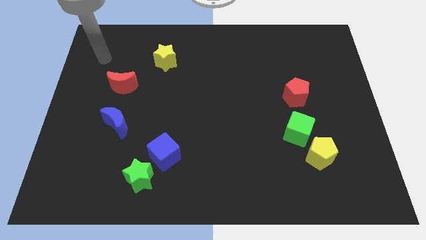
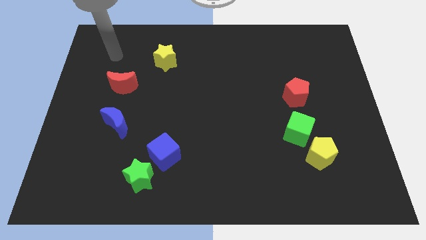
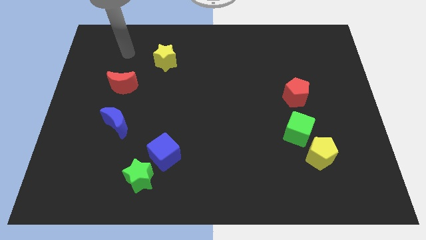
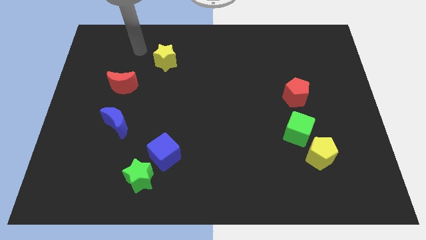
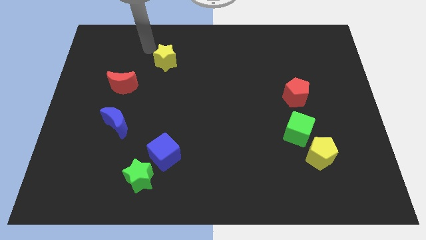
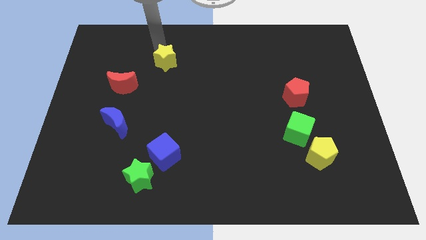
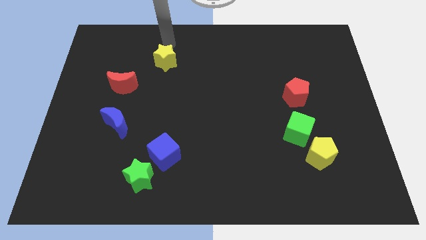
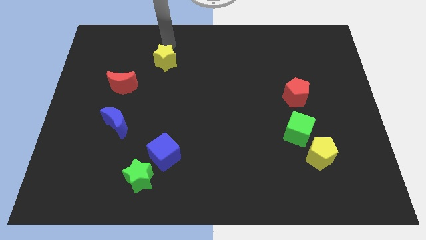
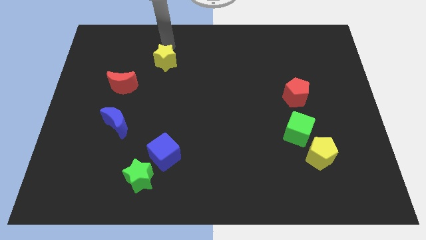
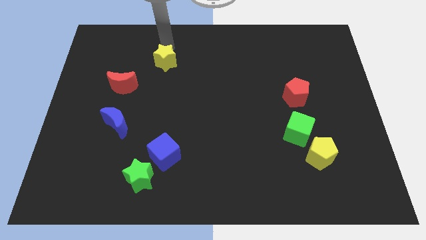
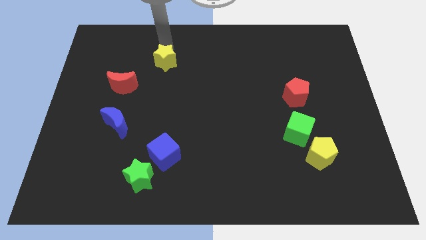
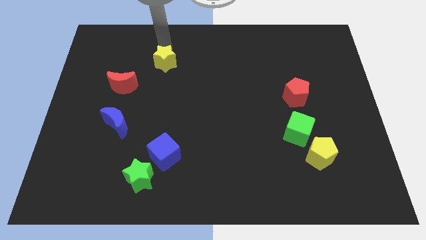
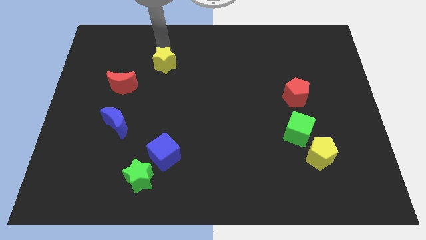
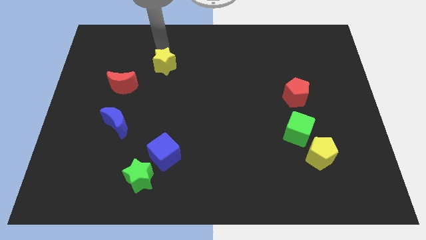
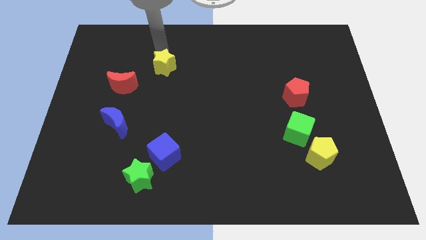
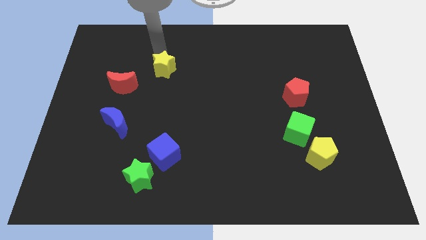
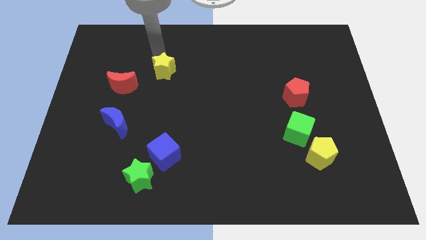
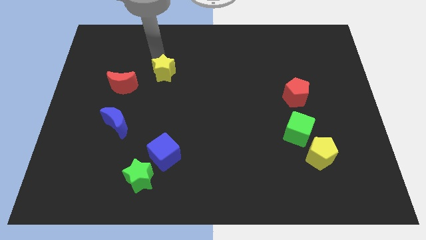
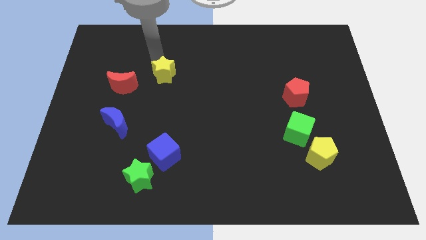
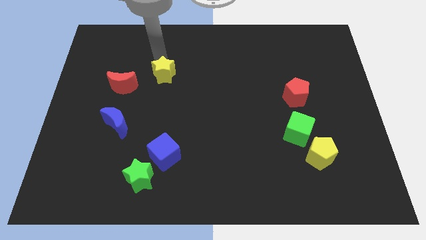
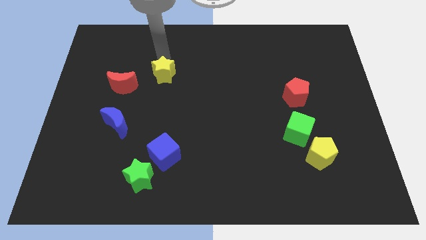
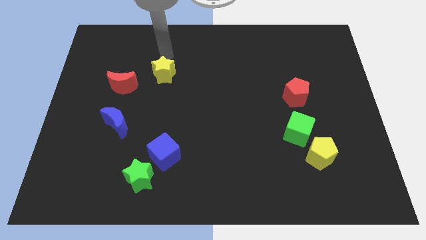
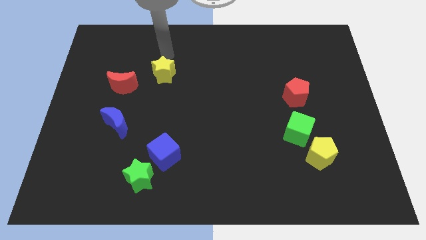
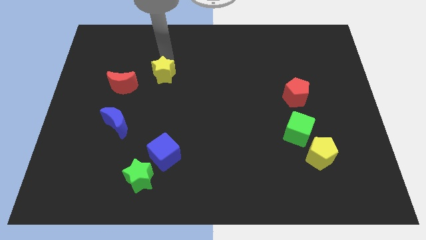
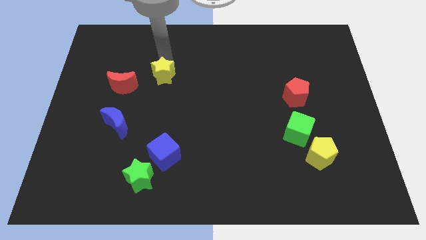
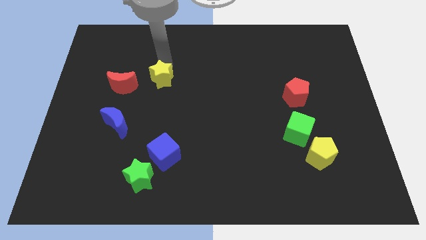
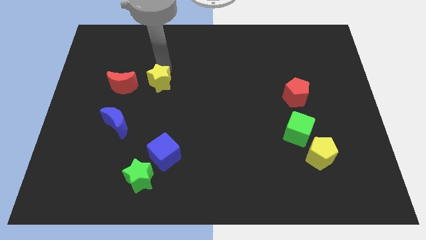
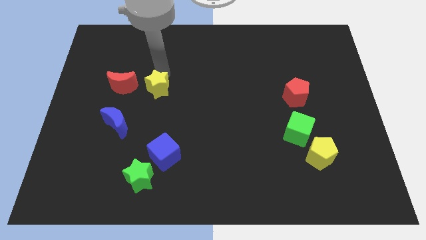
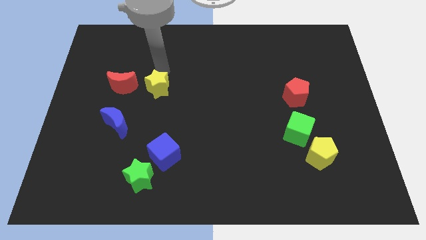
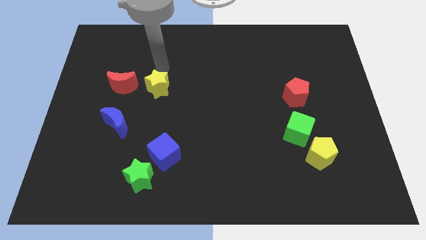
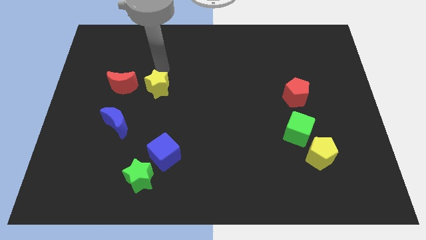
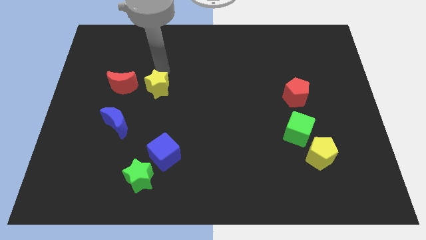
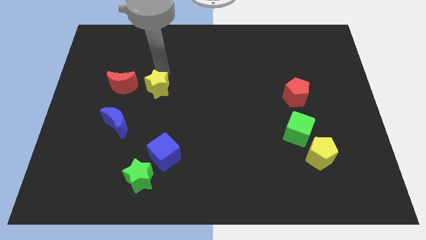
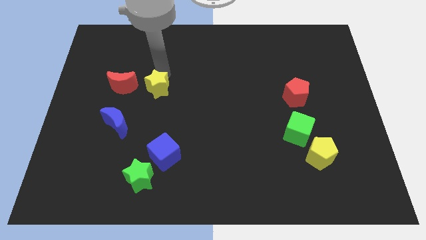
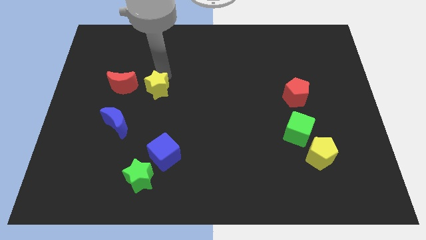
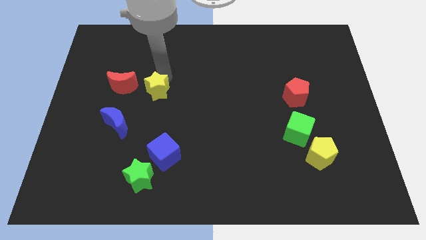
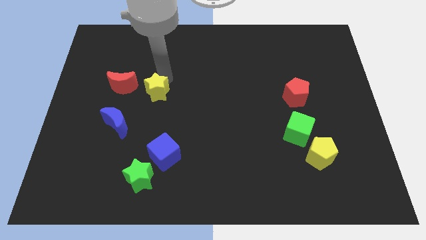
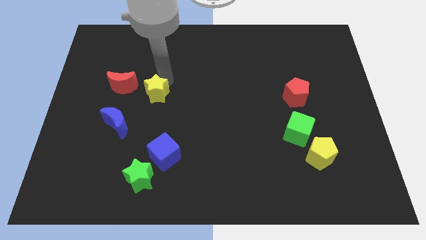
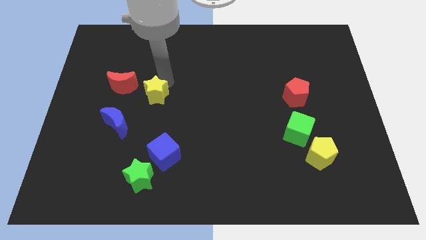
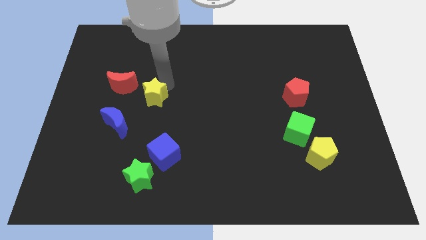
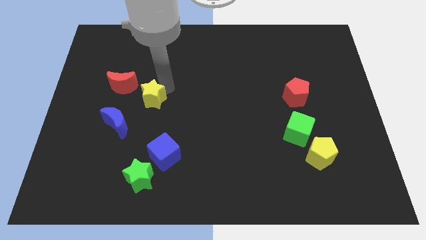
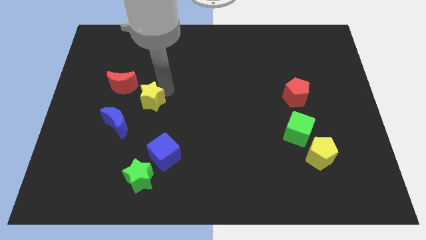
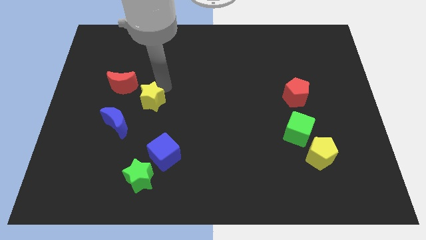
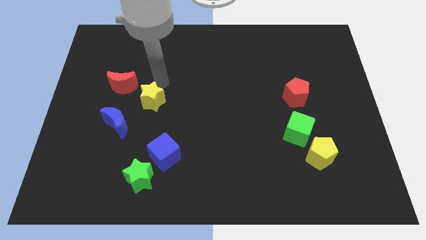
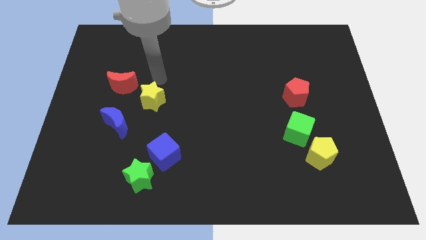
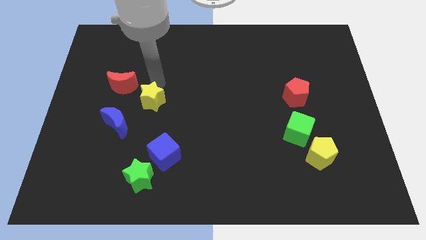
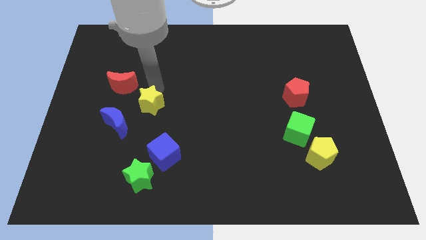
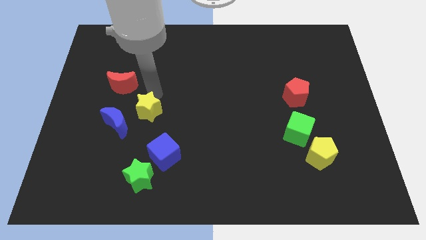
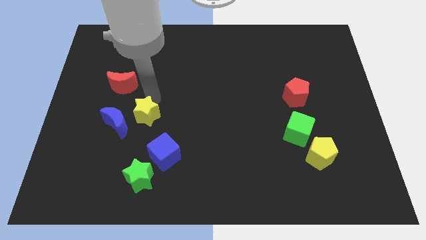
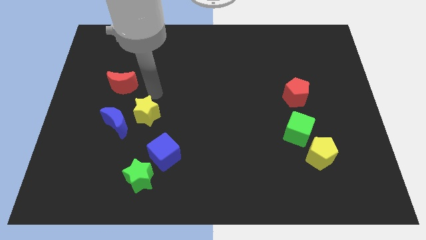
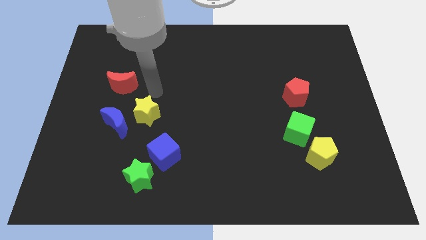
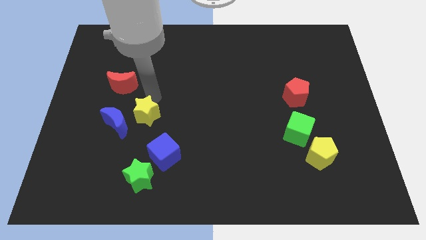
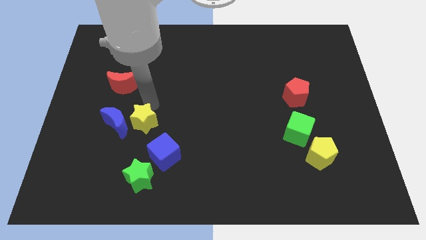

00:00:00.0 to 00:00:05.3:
move the yellow star to the bottom right of the blue moon

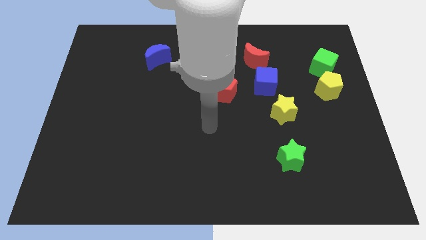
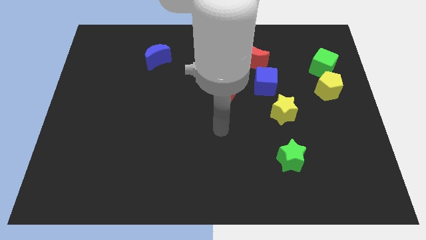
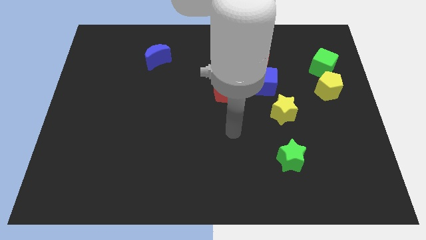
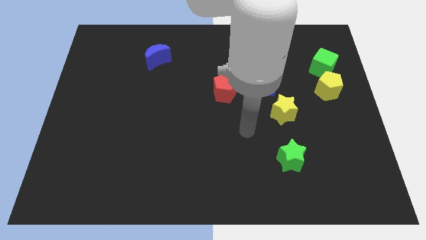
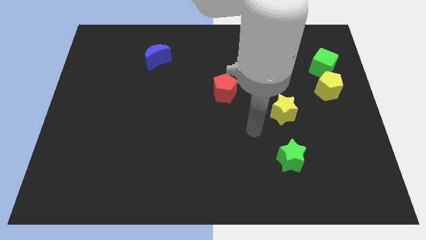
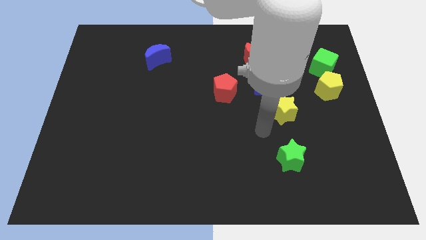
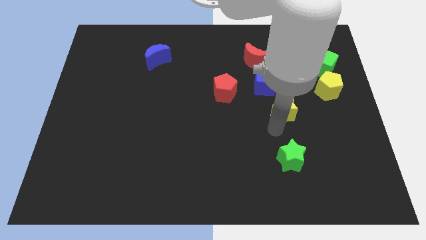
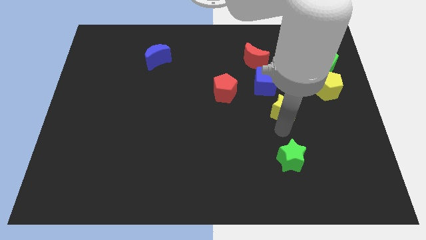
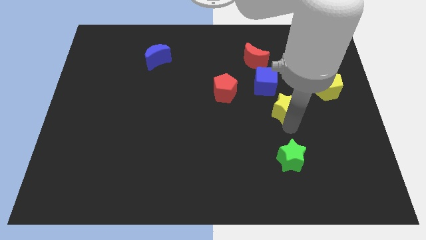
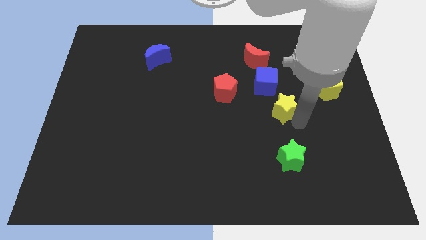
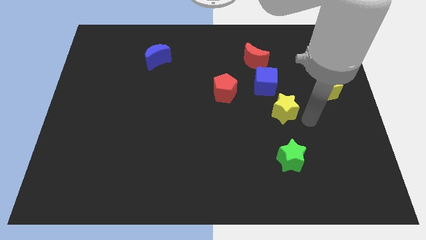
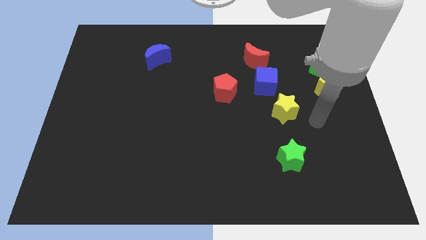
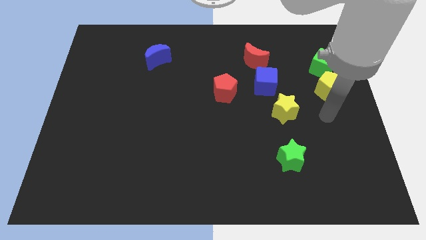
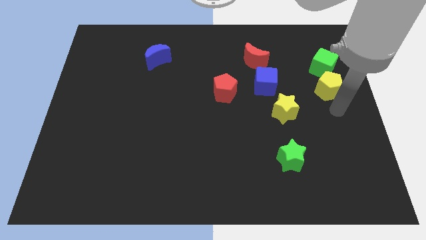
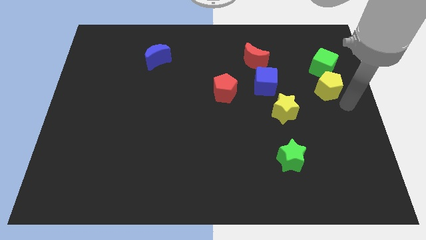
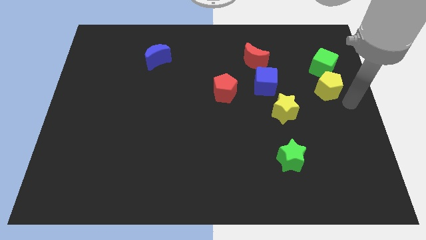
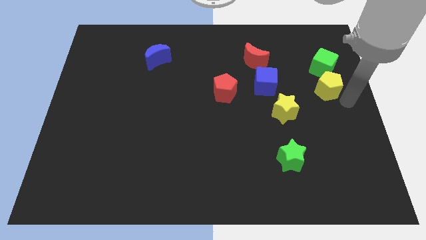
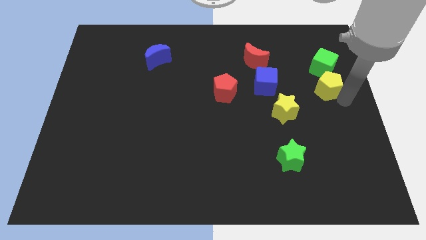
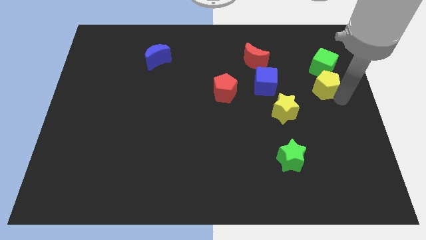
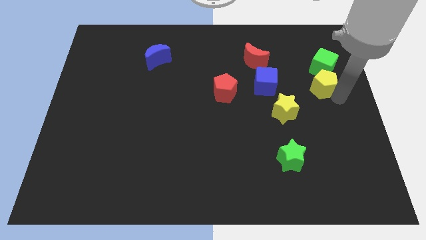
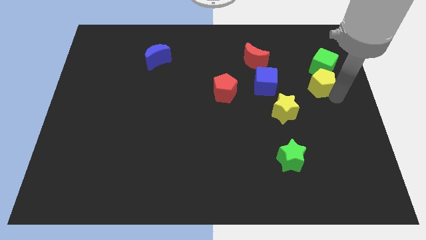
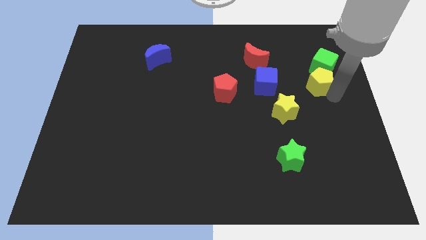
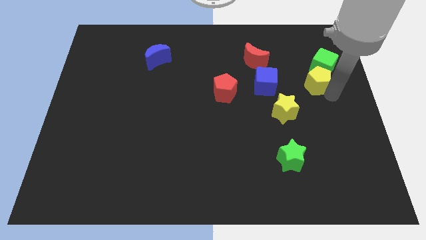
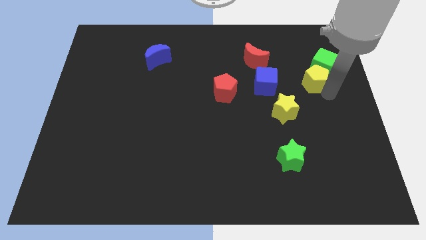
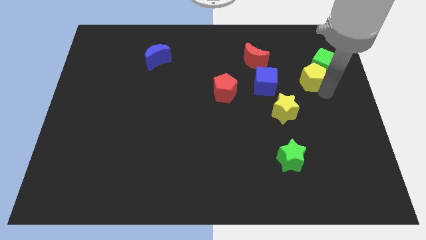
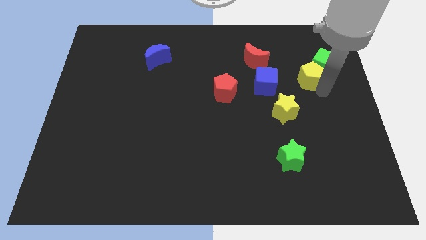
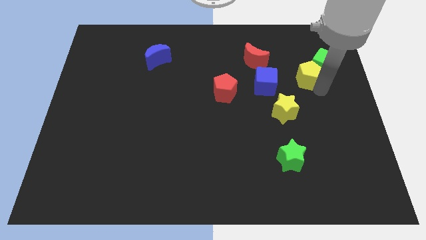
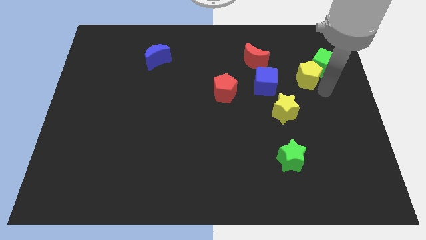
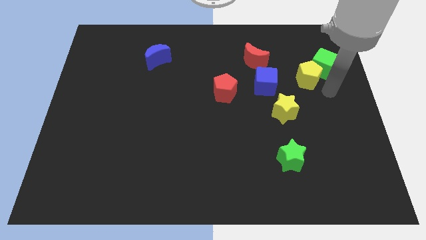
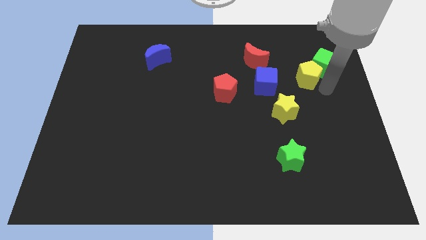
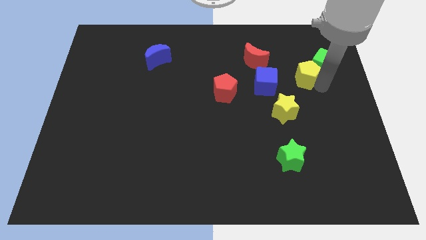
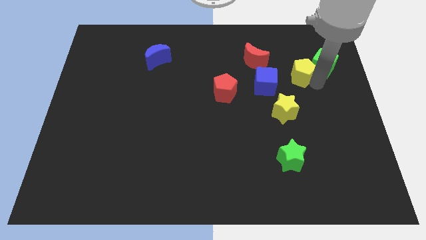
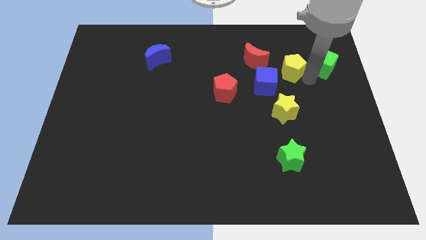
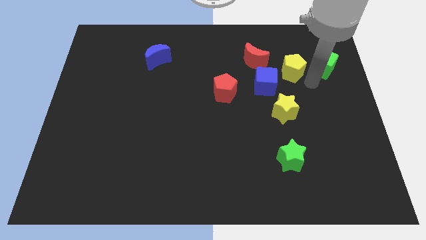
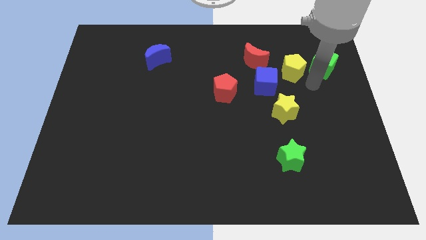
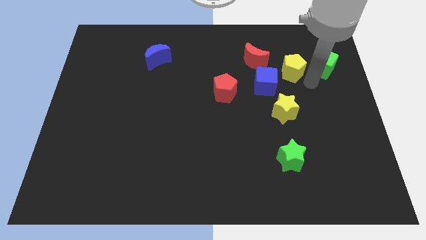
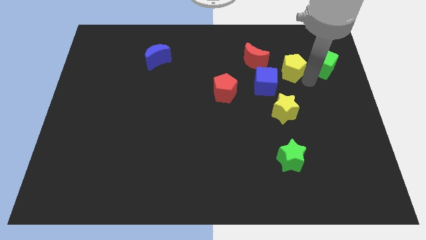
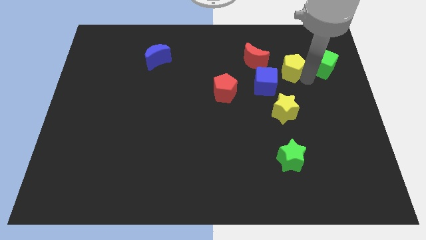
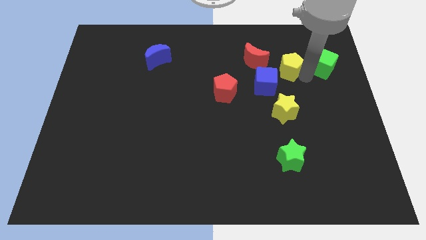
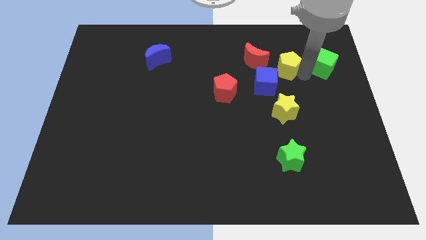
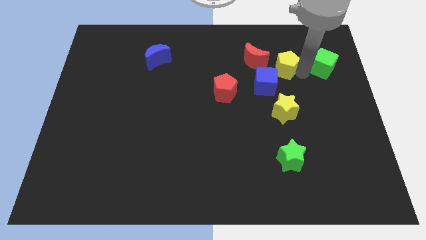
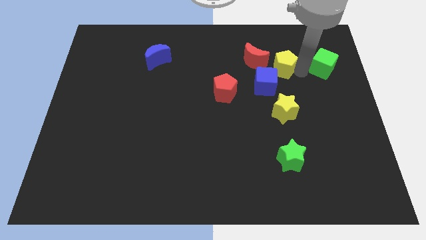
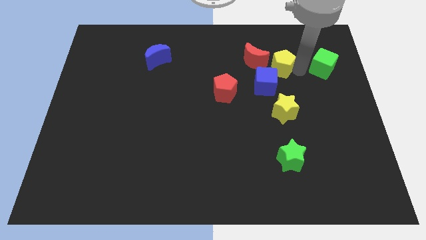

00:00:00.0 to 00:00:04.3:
put the yellow pentagon to the top of the blue cube
